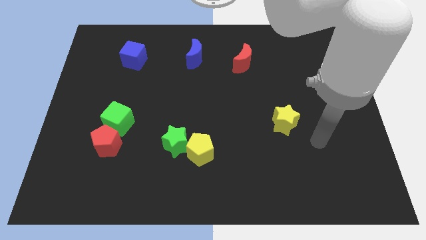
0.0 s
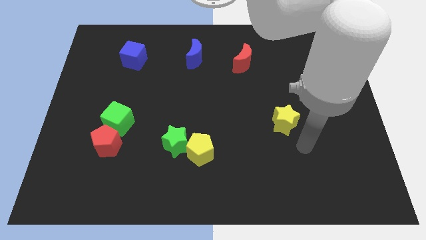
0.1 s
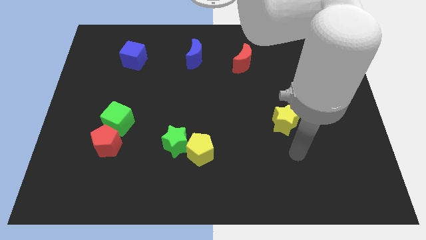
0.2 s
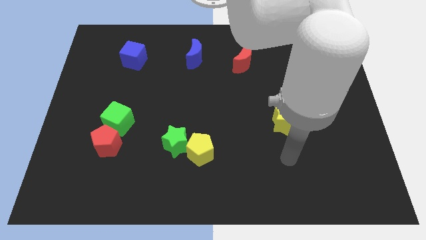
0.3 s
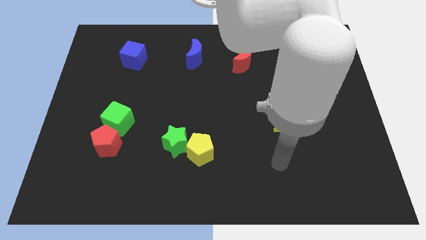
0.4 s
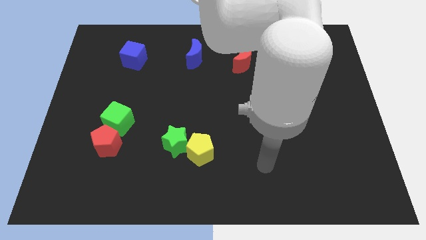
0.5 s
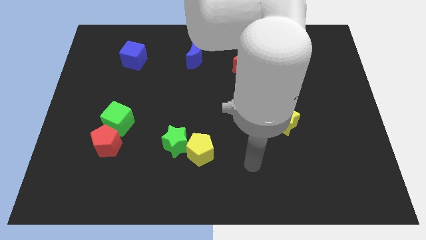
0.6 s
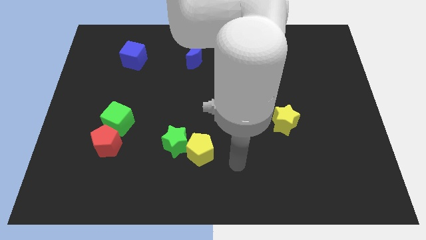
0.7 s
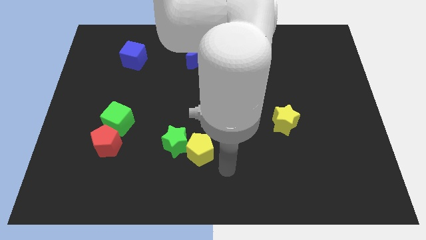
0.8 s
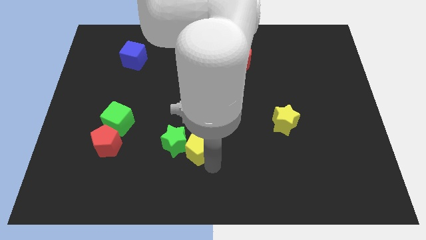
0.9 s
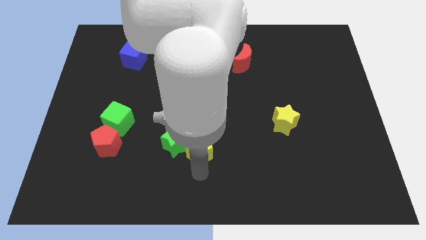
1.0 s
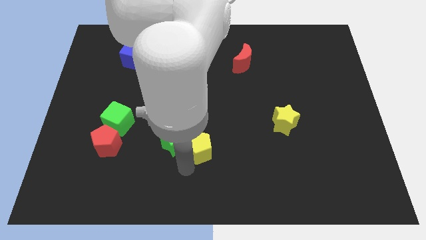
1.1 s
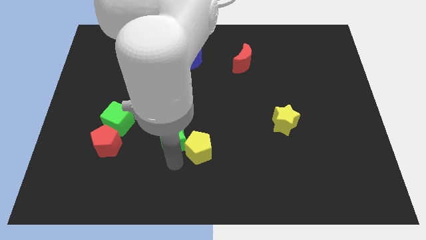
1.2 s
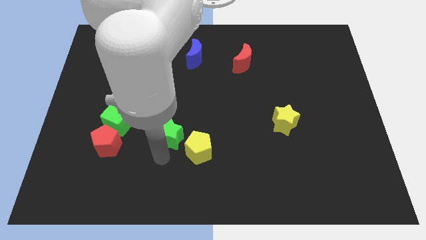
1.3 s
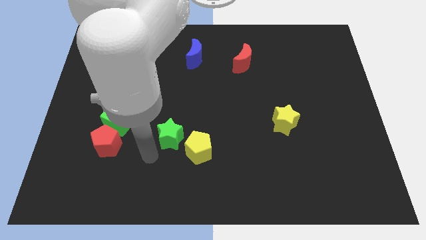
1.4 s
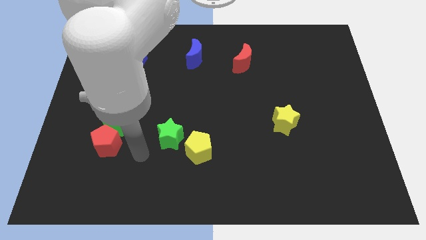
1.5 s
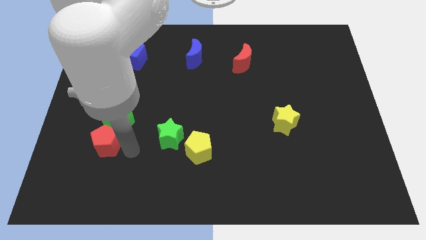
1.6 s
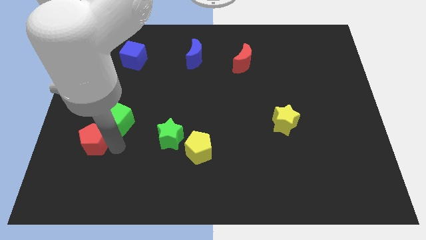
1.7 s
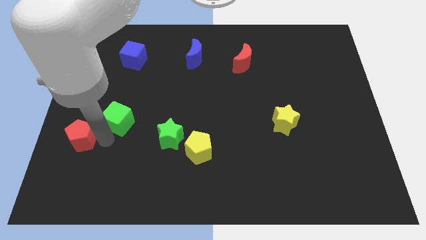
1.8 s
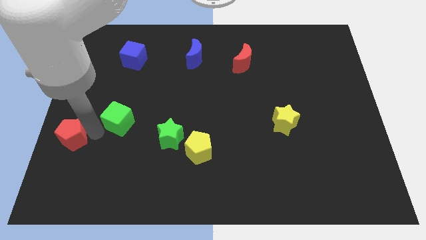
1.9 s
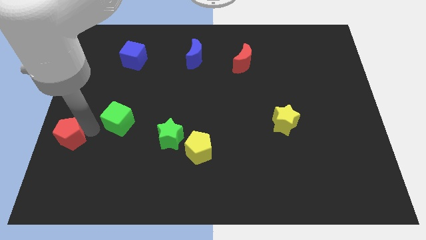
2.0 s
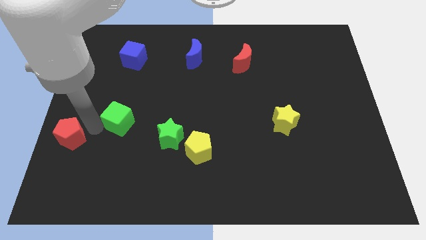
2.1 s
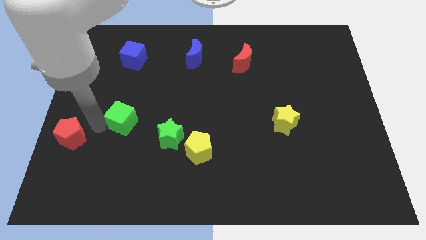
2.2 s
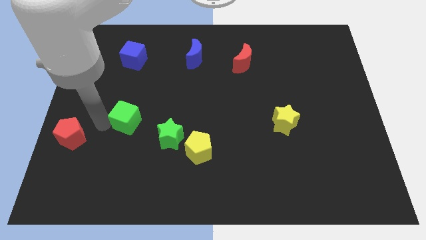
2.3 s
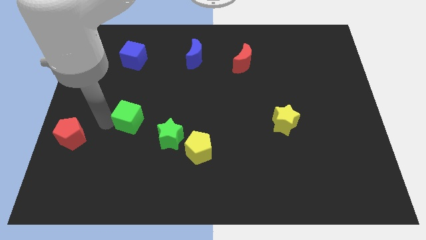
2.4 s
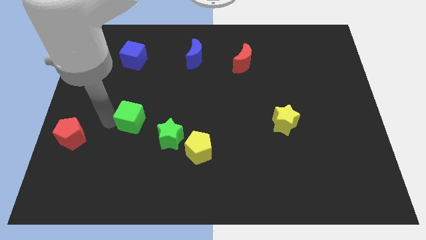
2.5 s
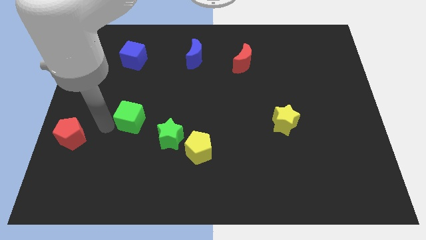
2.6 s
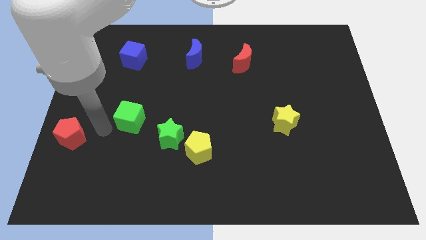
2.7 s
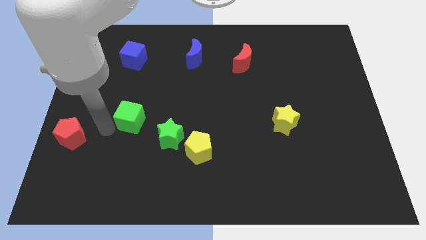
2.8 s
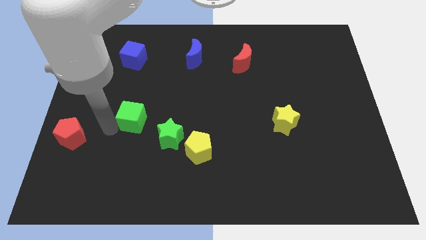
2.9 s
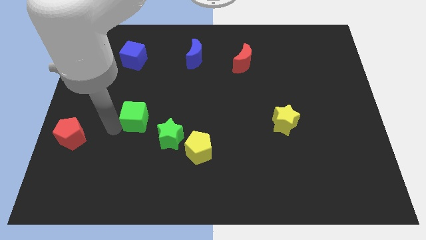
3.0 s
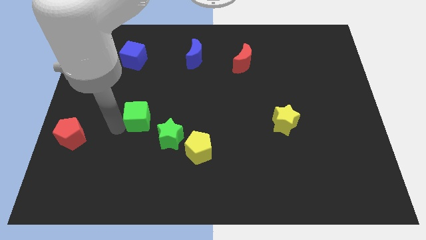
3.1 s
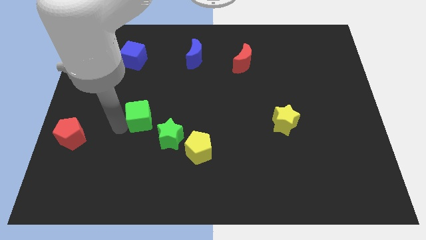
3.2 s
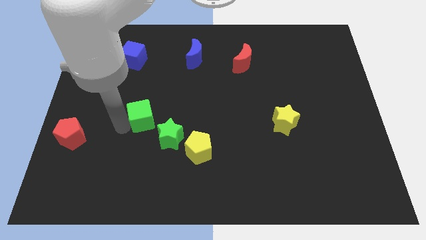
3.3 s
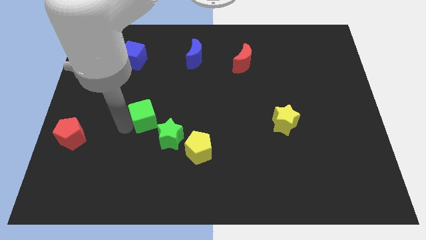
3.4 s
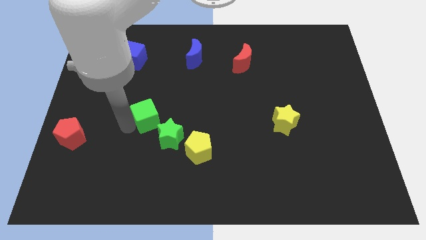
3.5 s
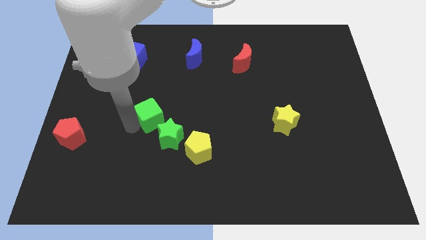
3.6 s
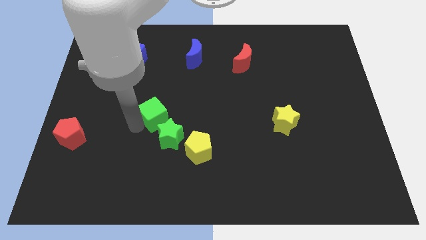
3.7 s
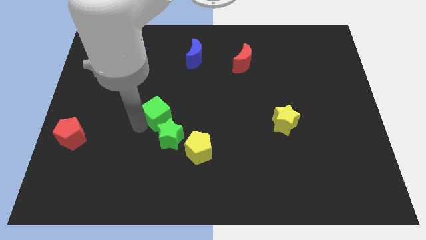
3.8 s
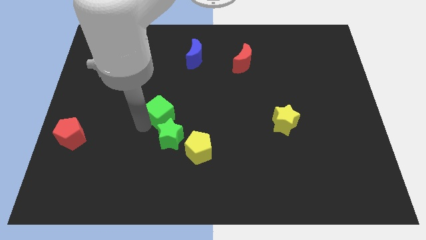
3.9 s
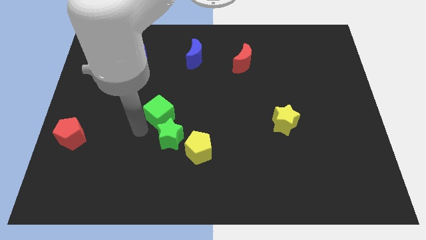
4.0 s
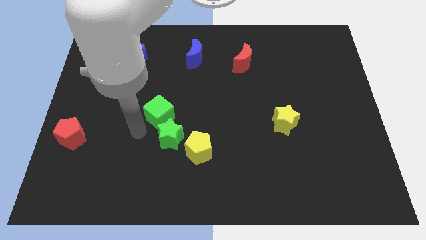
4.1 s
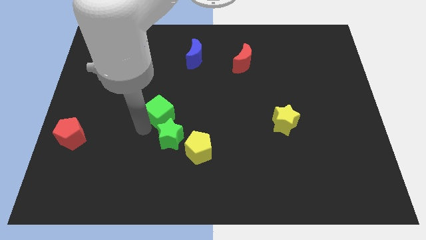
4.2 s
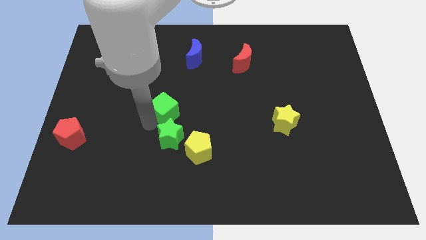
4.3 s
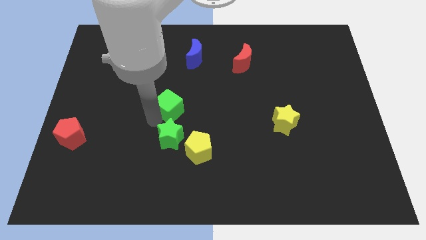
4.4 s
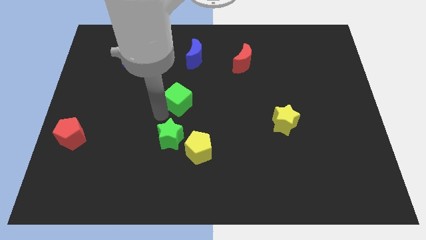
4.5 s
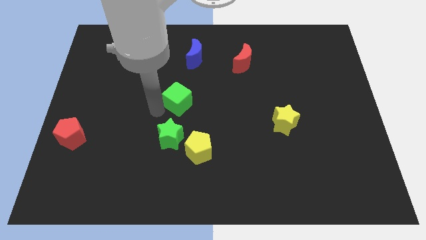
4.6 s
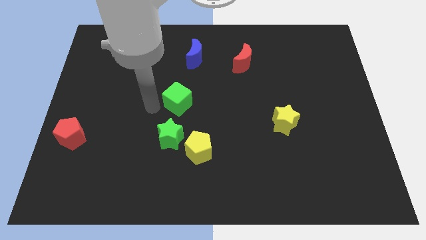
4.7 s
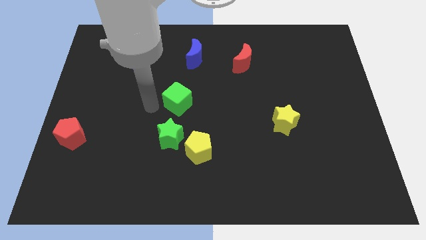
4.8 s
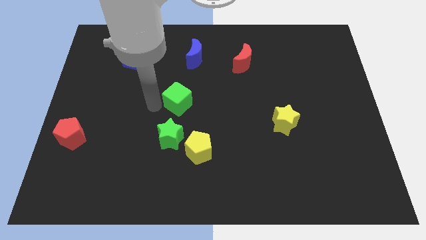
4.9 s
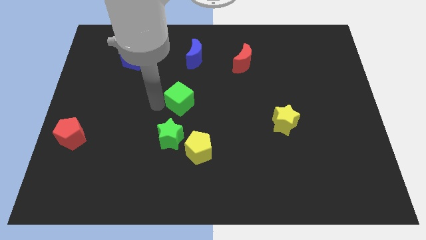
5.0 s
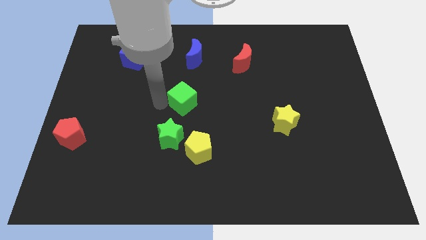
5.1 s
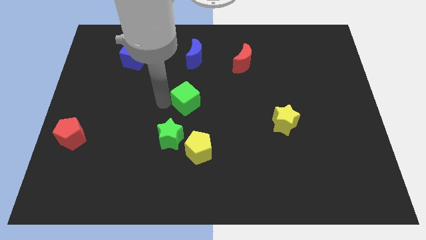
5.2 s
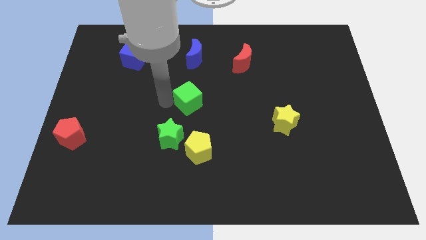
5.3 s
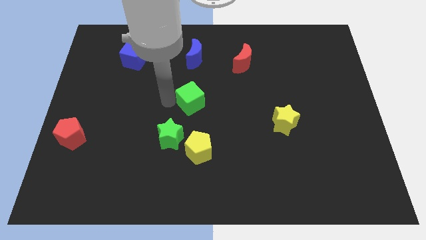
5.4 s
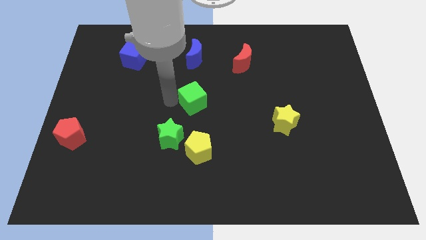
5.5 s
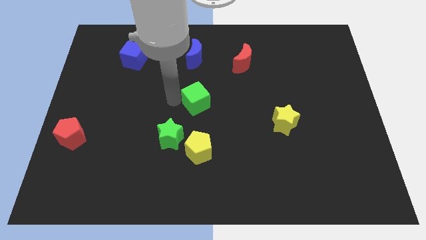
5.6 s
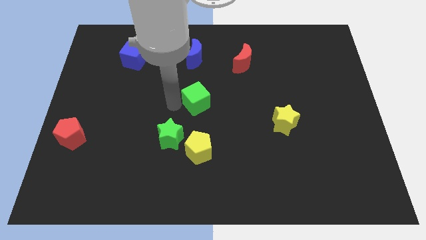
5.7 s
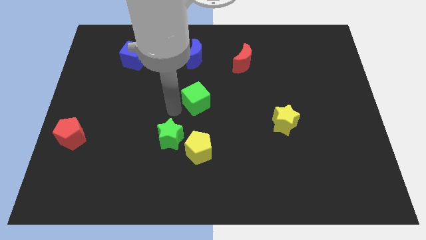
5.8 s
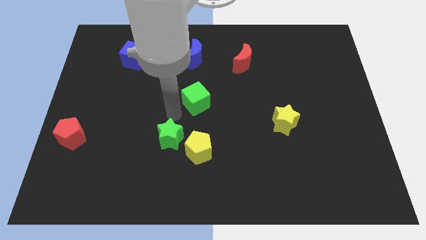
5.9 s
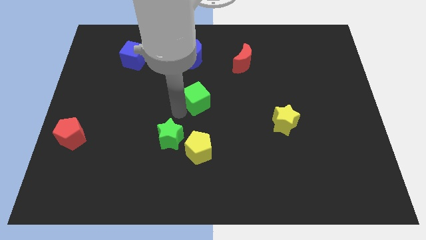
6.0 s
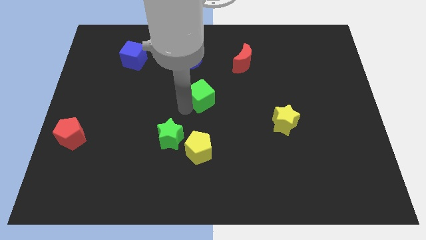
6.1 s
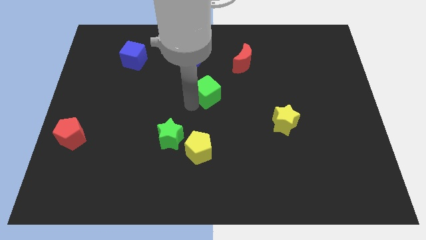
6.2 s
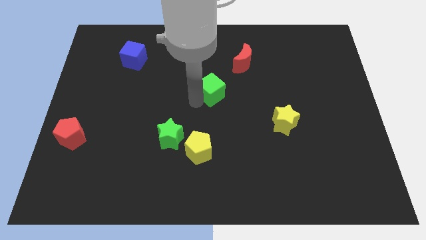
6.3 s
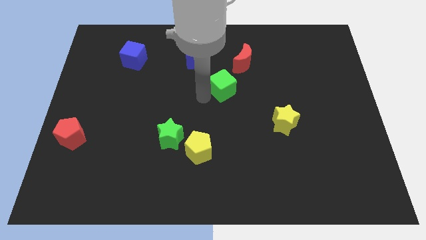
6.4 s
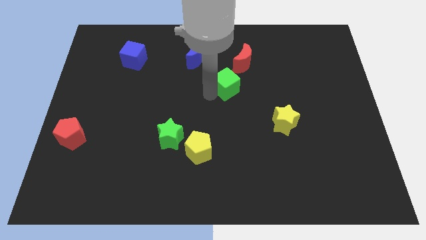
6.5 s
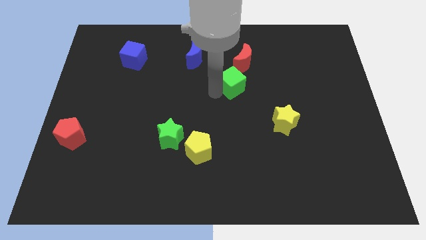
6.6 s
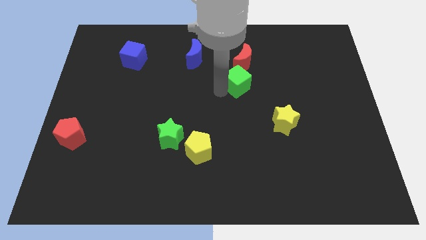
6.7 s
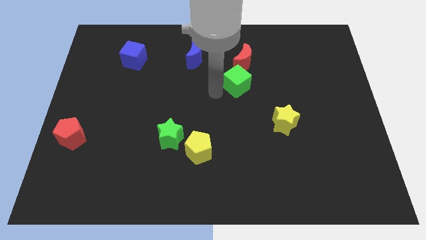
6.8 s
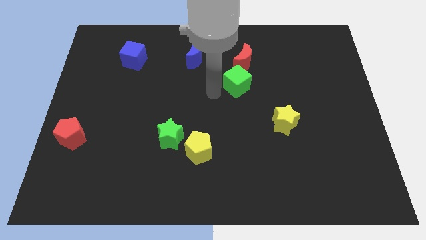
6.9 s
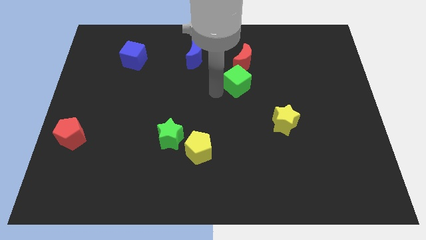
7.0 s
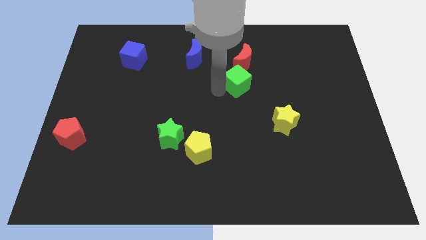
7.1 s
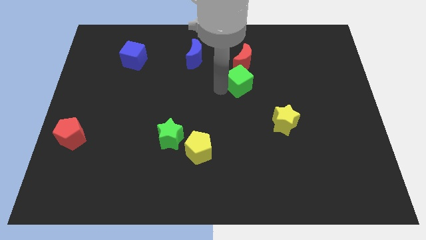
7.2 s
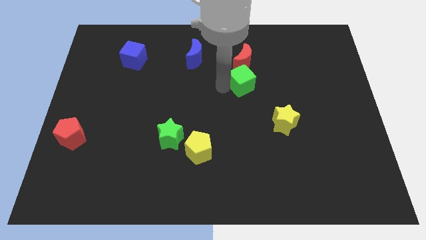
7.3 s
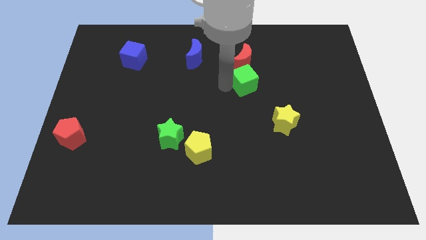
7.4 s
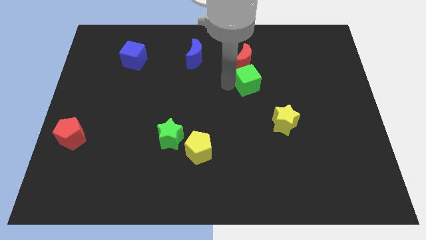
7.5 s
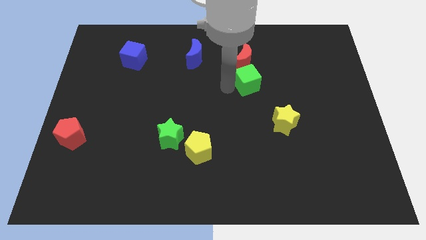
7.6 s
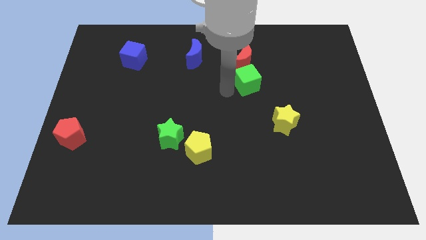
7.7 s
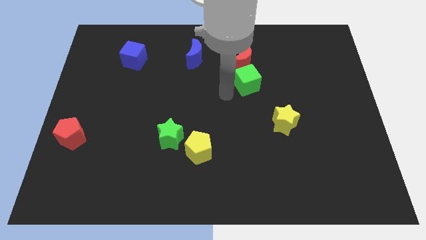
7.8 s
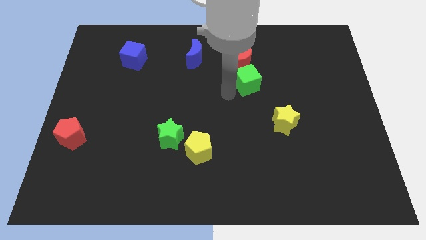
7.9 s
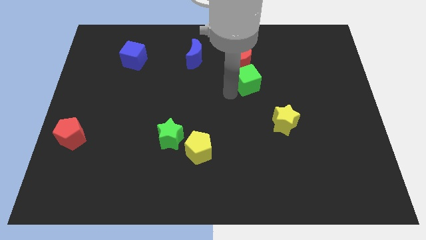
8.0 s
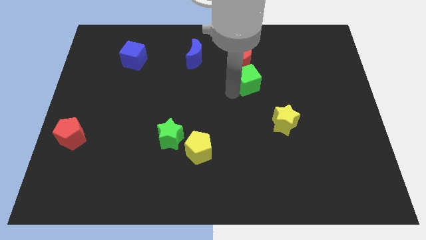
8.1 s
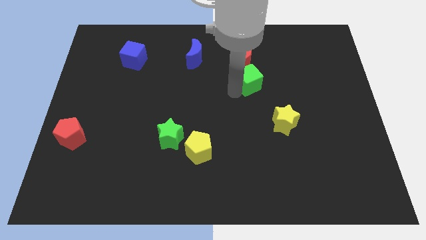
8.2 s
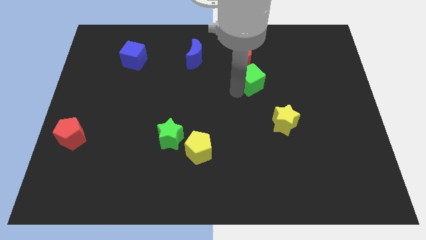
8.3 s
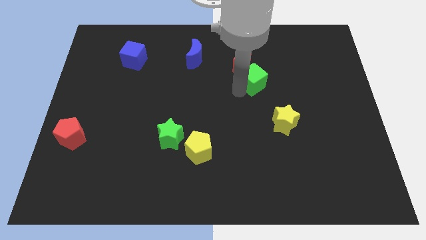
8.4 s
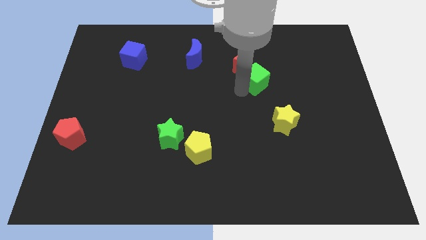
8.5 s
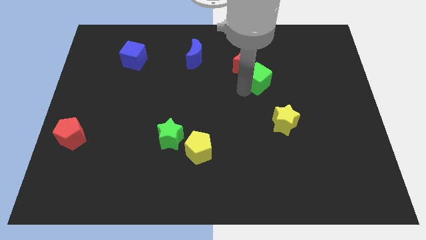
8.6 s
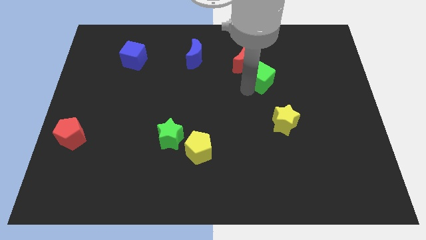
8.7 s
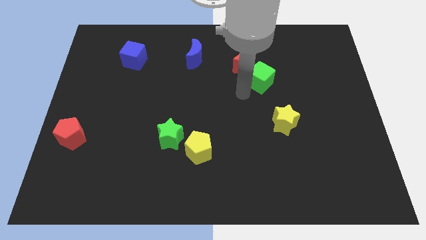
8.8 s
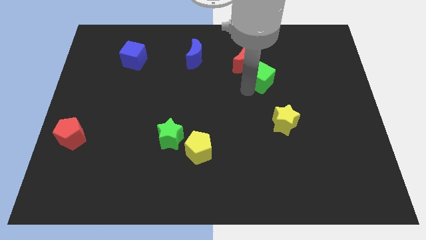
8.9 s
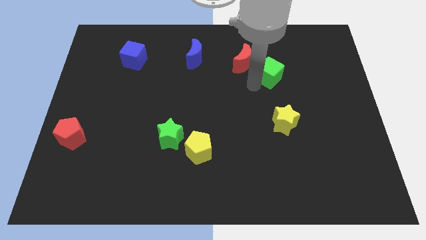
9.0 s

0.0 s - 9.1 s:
push the green cube right of the red moon
